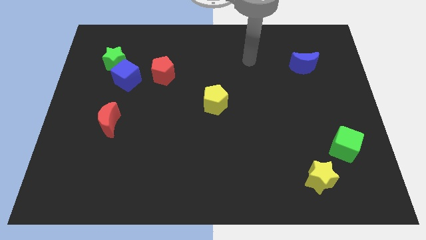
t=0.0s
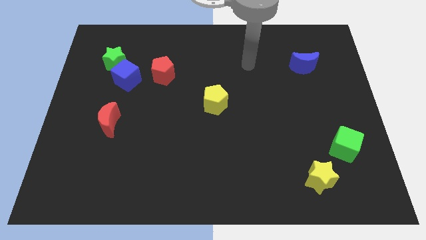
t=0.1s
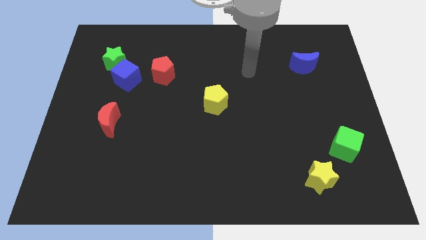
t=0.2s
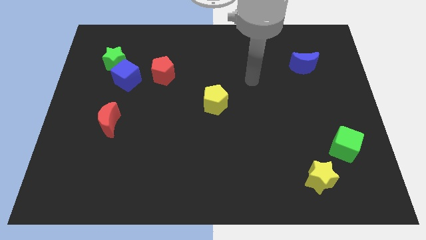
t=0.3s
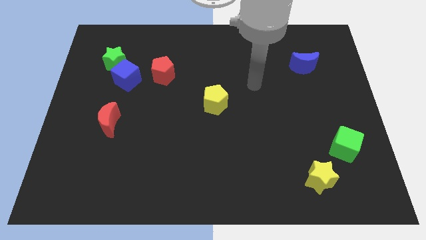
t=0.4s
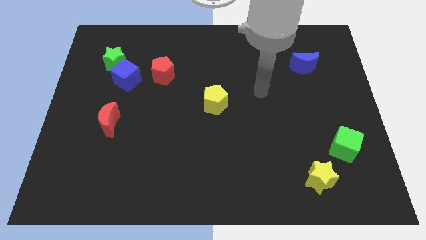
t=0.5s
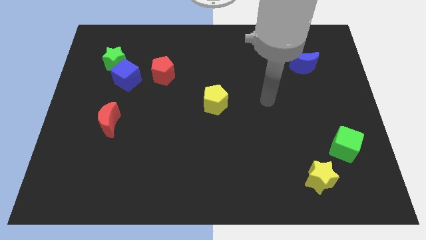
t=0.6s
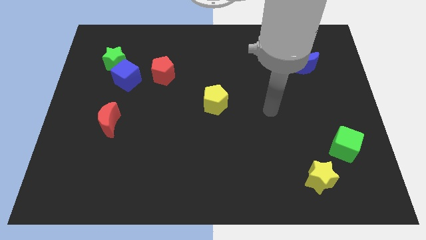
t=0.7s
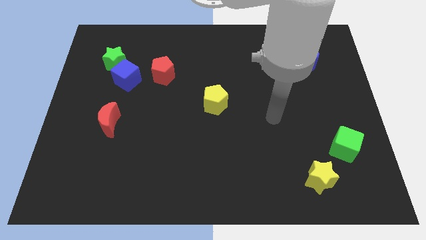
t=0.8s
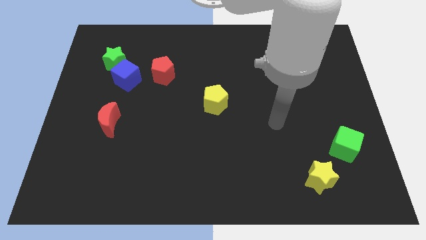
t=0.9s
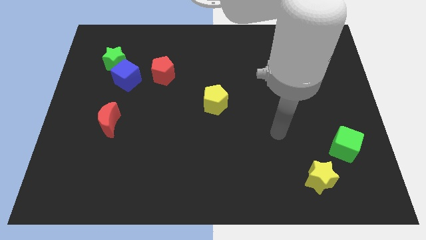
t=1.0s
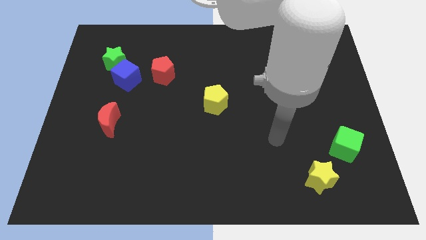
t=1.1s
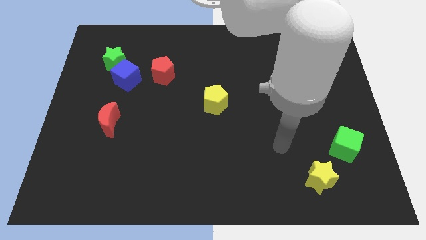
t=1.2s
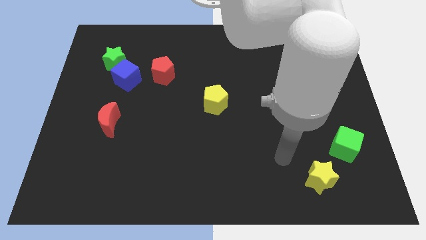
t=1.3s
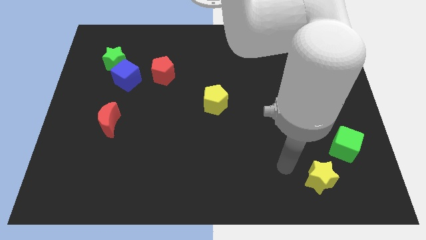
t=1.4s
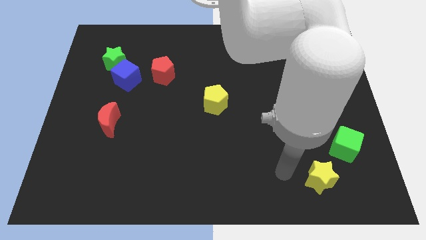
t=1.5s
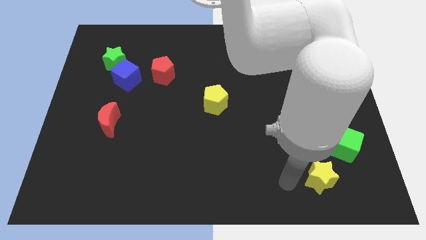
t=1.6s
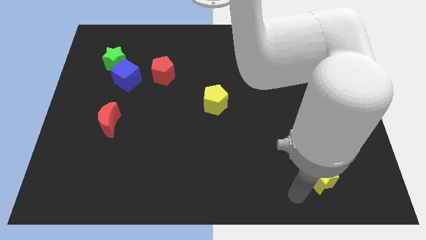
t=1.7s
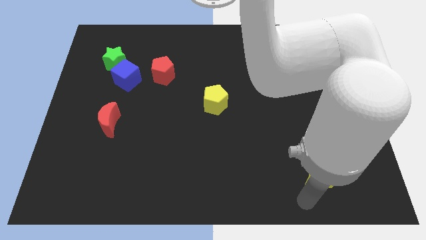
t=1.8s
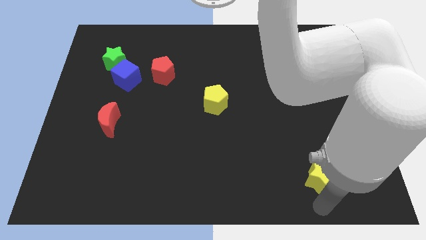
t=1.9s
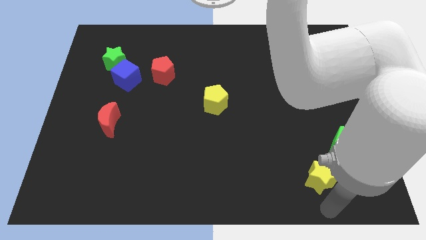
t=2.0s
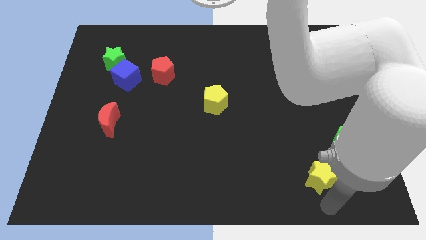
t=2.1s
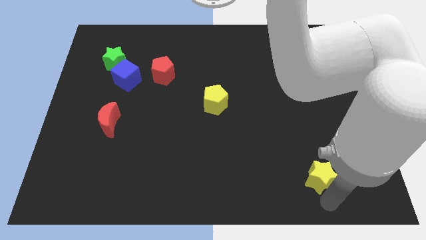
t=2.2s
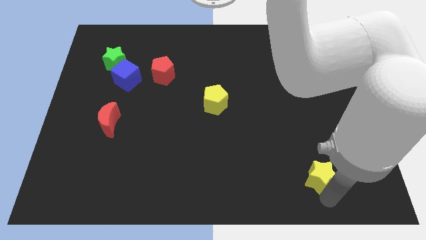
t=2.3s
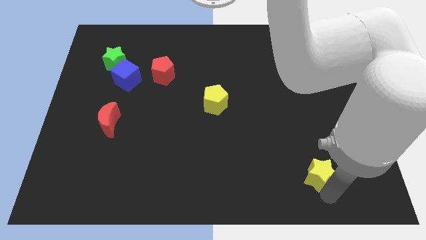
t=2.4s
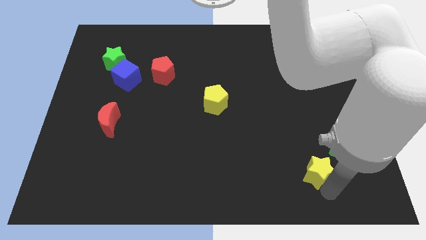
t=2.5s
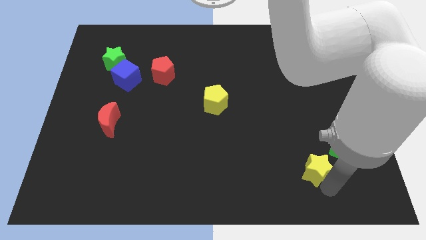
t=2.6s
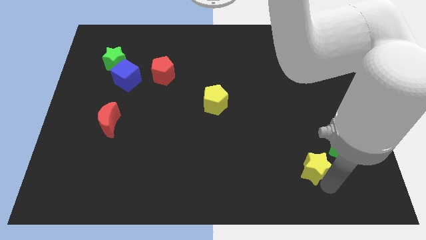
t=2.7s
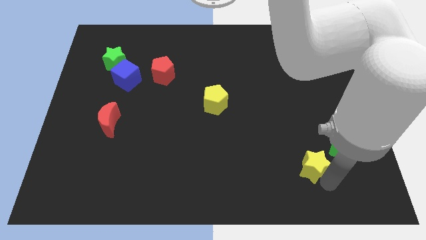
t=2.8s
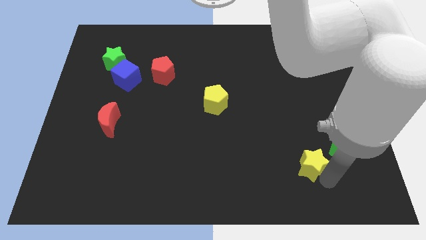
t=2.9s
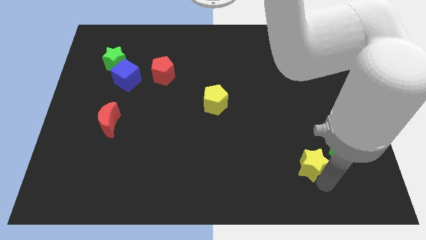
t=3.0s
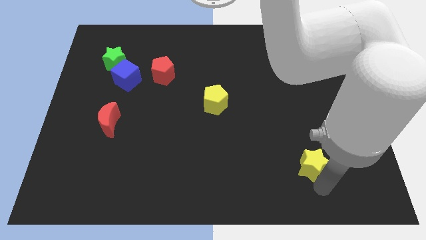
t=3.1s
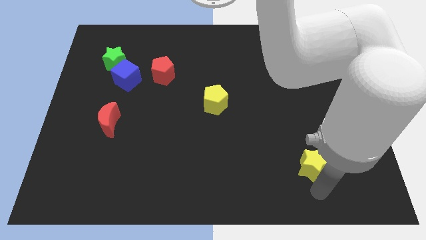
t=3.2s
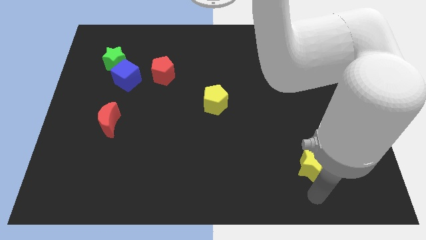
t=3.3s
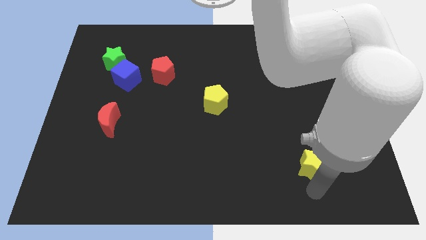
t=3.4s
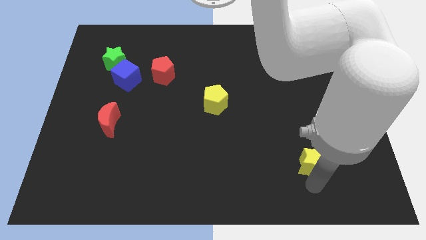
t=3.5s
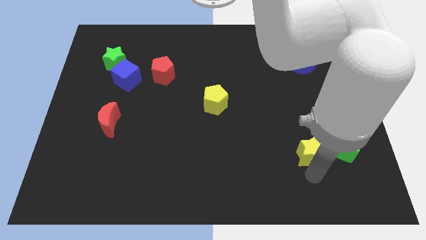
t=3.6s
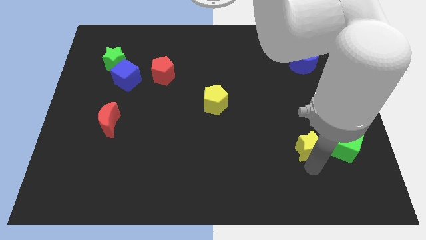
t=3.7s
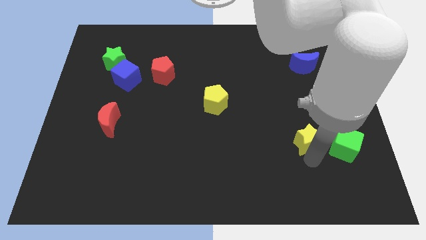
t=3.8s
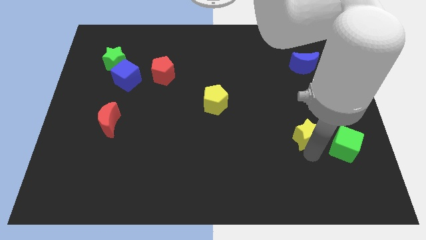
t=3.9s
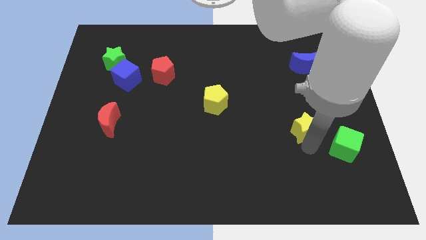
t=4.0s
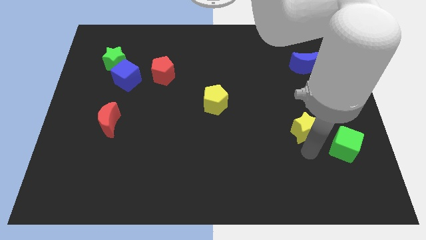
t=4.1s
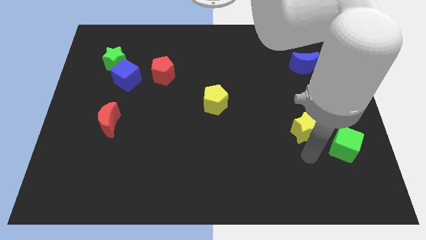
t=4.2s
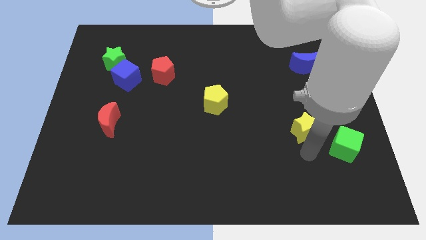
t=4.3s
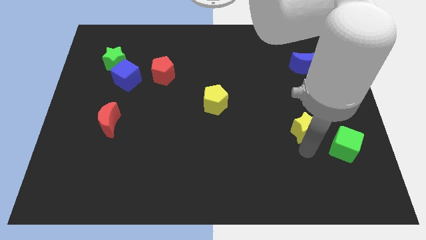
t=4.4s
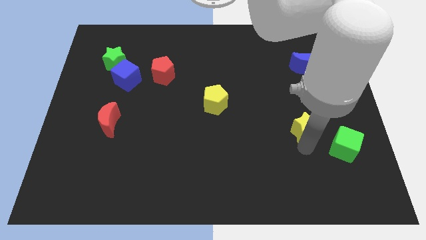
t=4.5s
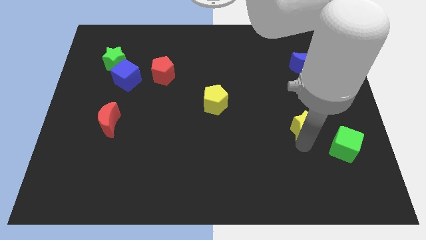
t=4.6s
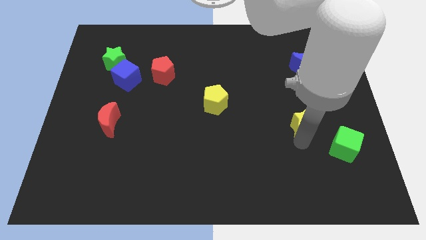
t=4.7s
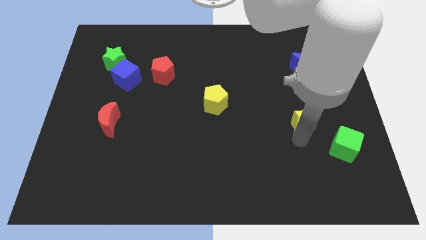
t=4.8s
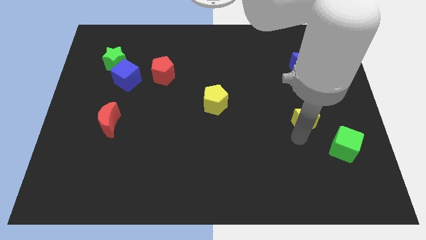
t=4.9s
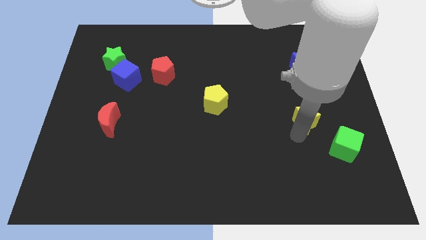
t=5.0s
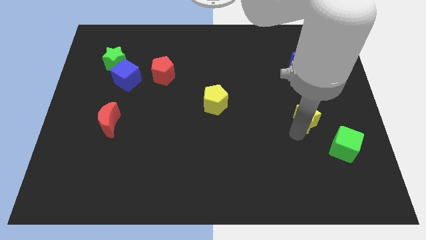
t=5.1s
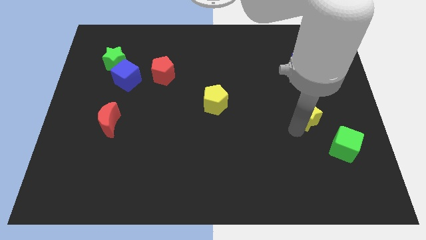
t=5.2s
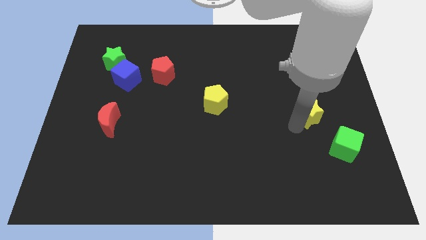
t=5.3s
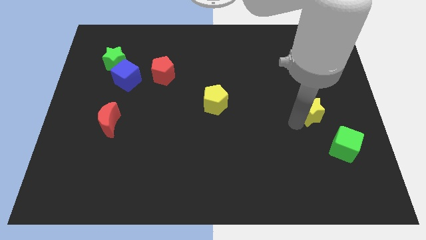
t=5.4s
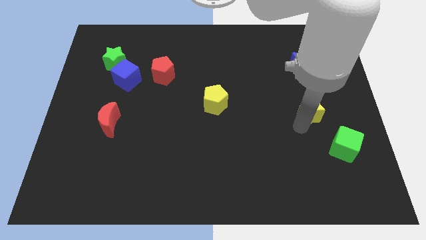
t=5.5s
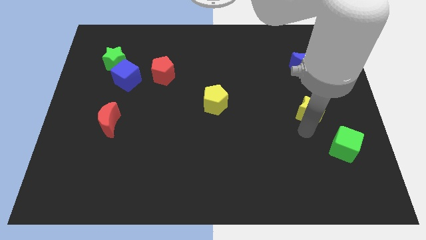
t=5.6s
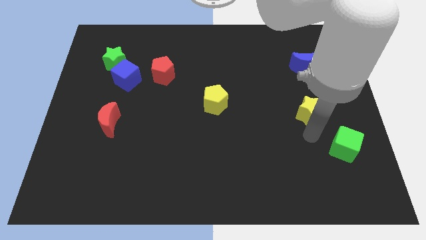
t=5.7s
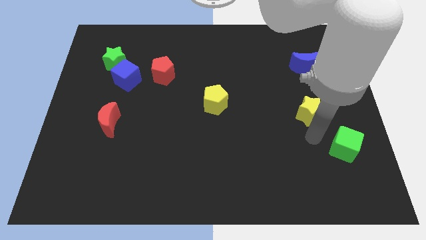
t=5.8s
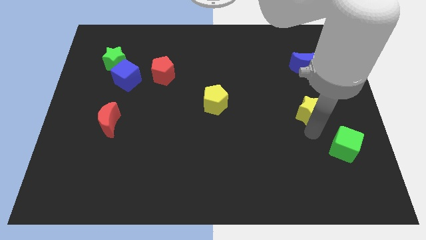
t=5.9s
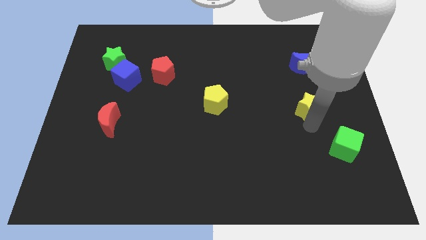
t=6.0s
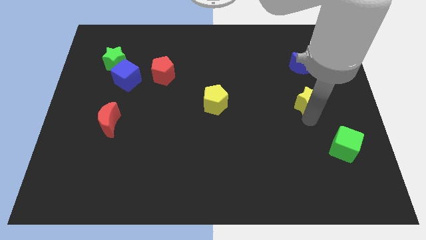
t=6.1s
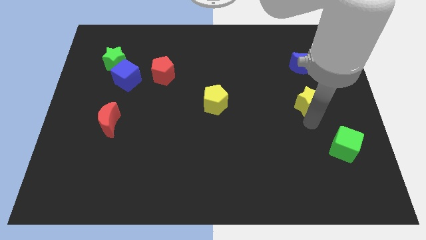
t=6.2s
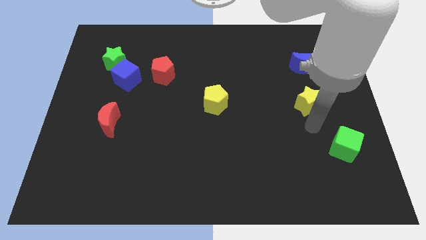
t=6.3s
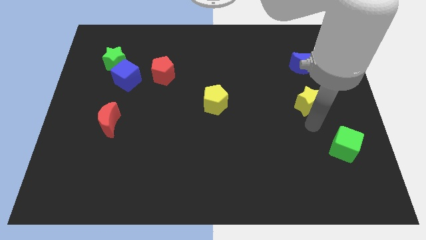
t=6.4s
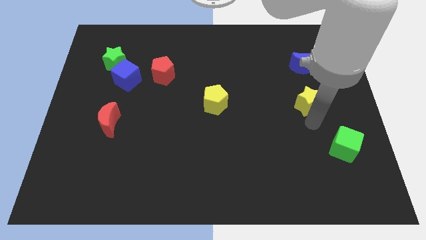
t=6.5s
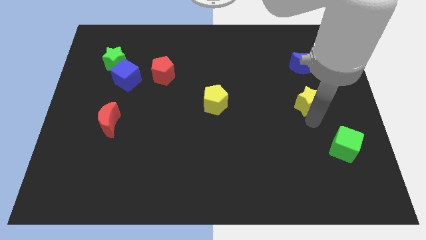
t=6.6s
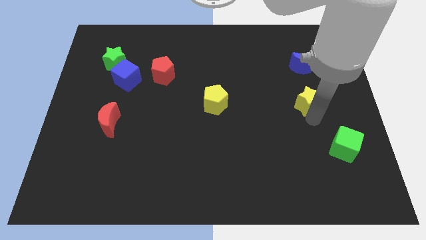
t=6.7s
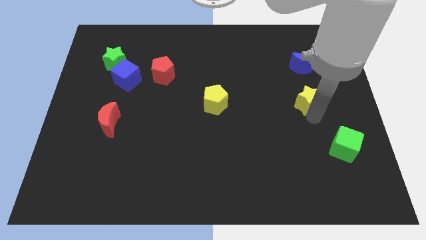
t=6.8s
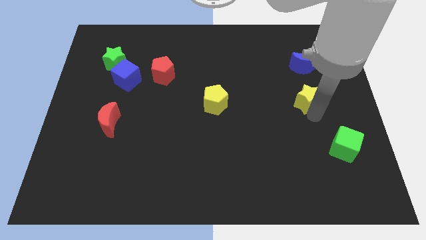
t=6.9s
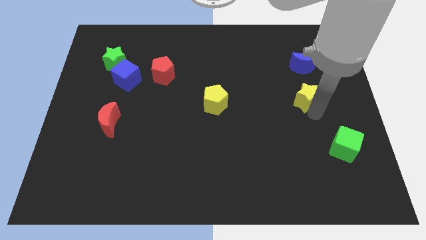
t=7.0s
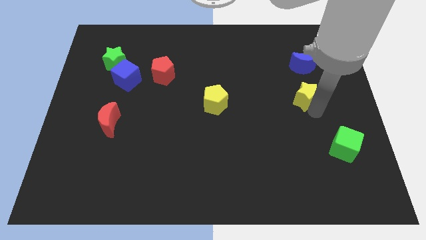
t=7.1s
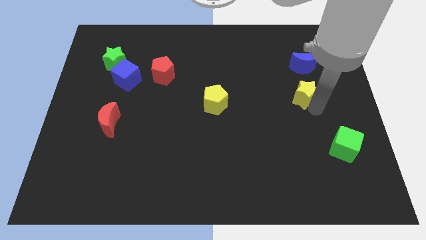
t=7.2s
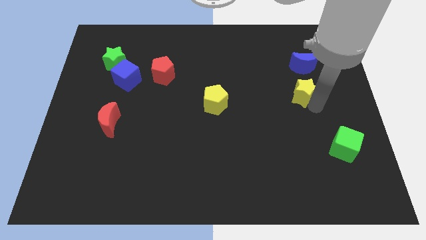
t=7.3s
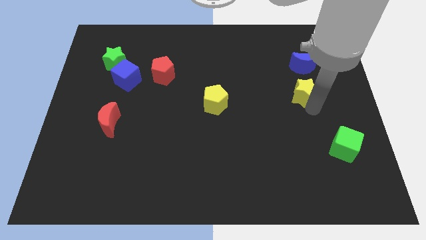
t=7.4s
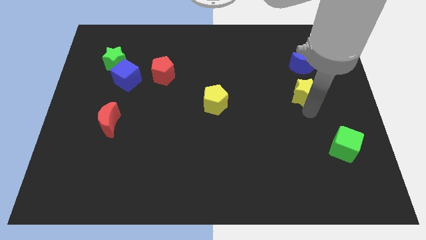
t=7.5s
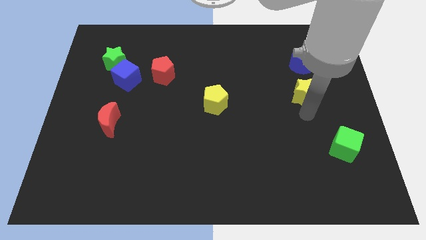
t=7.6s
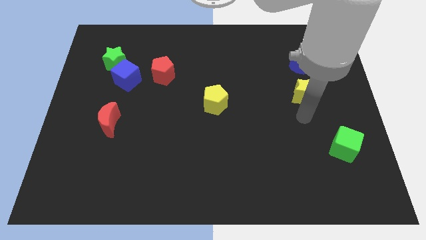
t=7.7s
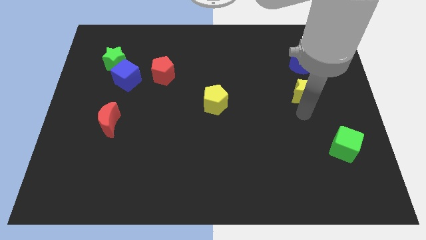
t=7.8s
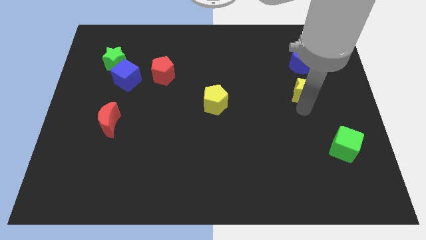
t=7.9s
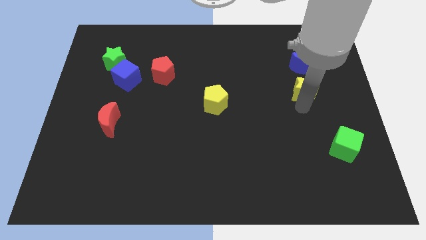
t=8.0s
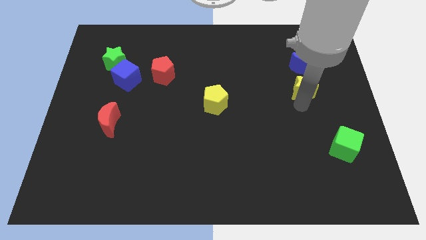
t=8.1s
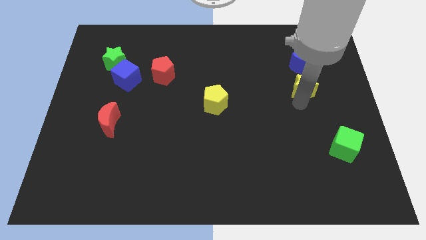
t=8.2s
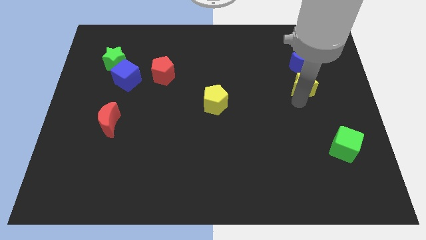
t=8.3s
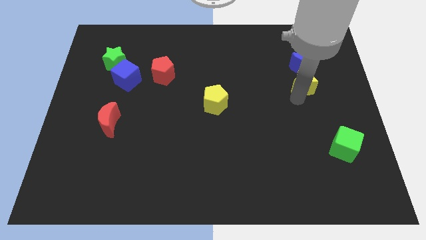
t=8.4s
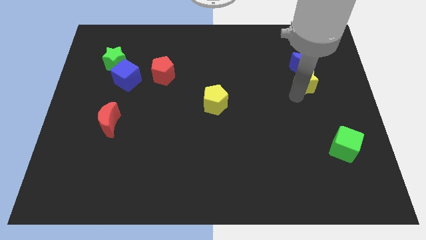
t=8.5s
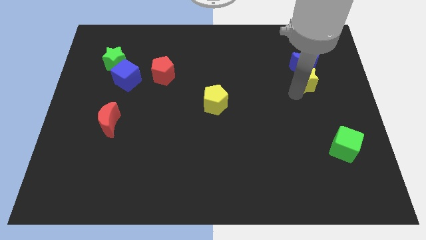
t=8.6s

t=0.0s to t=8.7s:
slide the yellow star close to the blue moon
